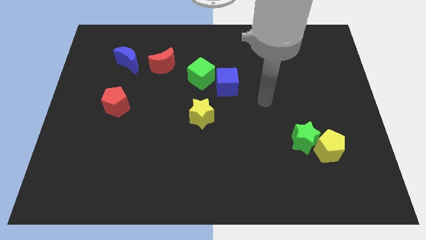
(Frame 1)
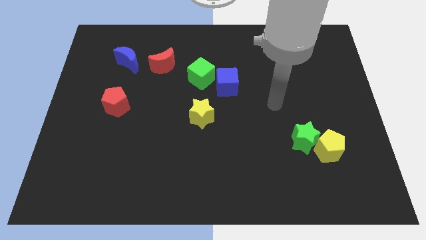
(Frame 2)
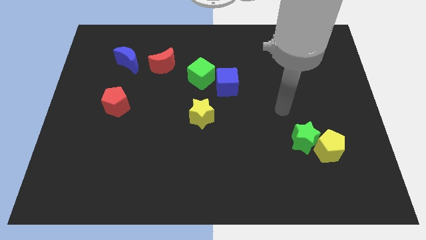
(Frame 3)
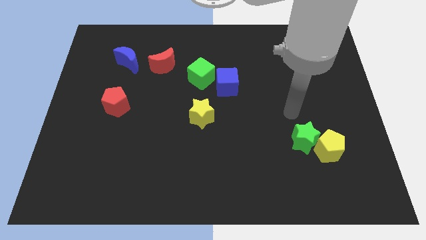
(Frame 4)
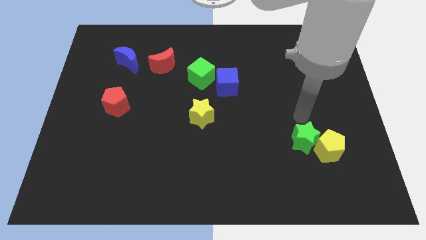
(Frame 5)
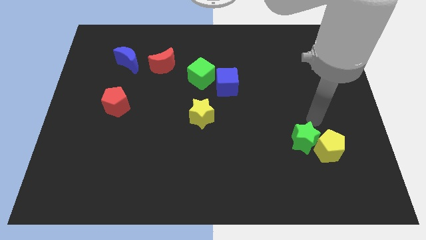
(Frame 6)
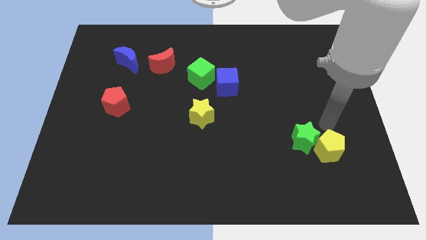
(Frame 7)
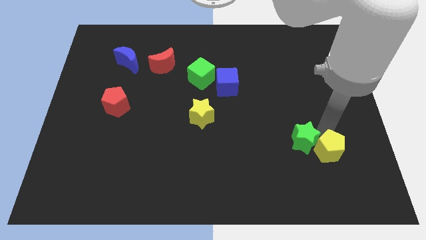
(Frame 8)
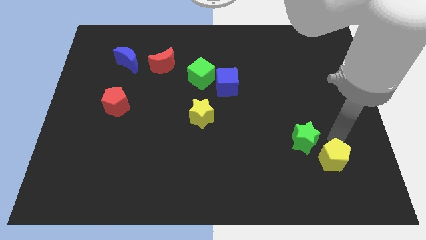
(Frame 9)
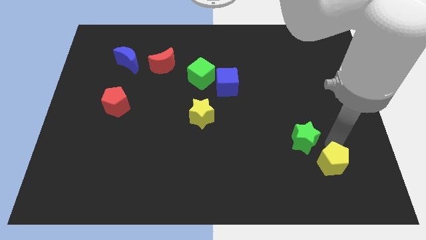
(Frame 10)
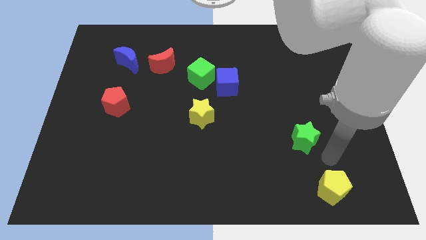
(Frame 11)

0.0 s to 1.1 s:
move the green star away from the yellow pentagon

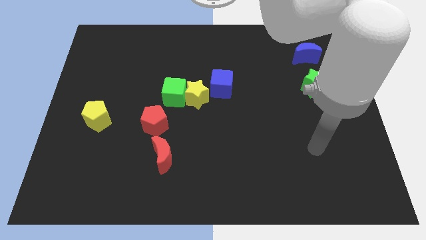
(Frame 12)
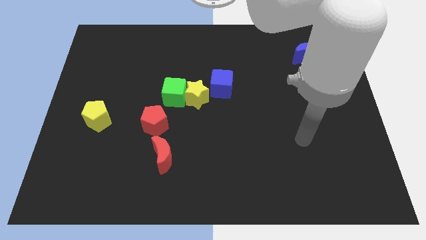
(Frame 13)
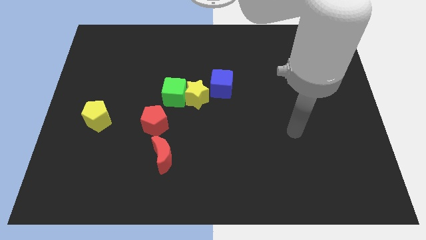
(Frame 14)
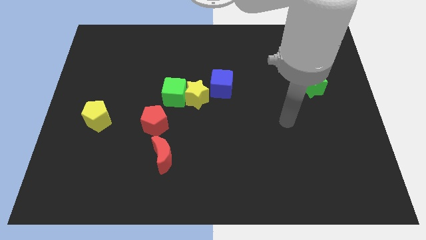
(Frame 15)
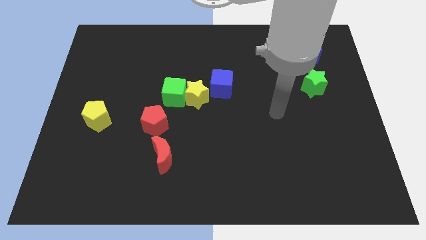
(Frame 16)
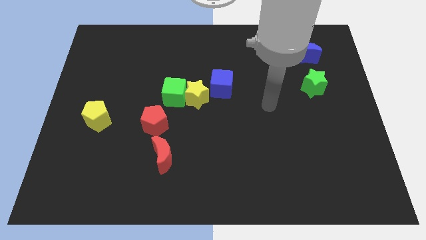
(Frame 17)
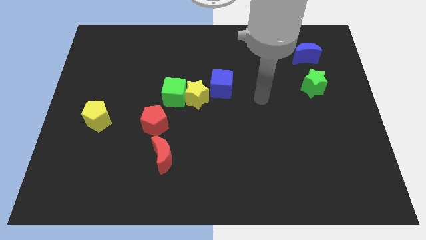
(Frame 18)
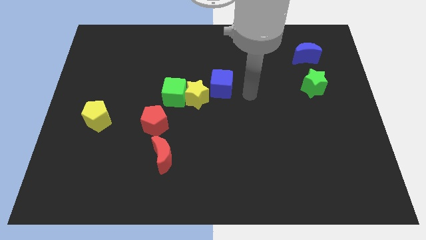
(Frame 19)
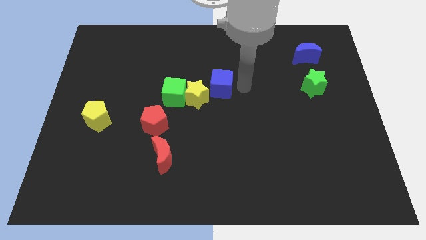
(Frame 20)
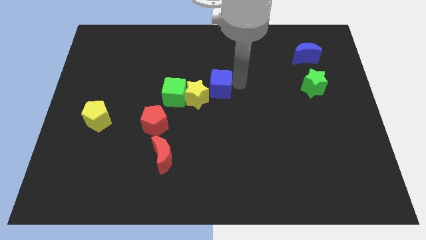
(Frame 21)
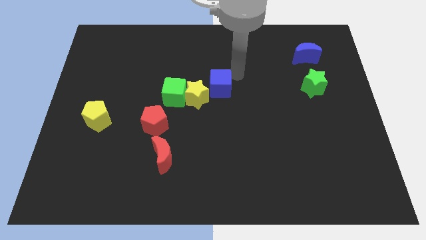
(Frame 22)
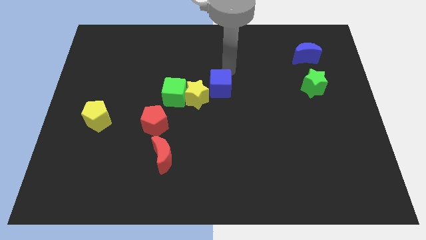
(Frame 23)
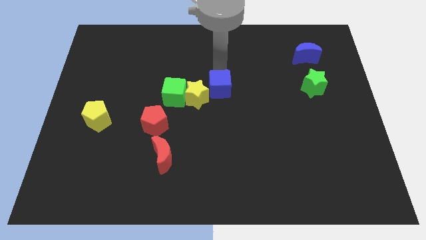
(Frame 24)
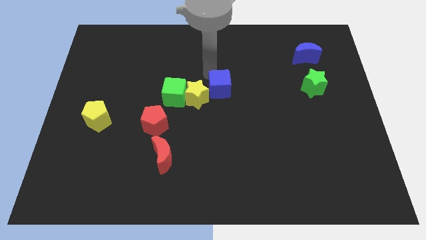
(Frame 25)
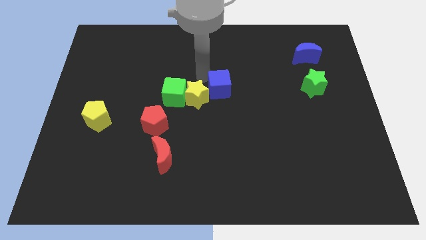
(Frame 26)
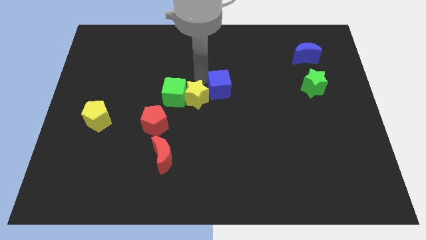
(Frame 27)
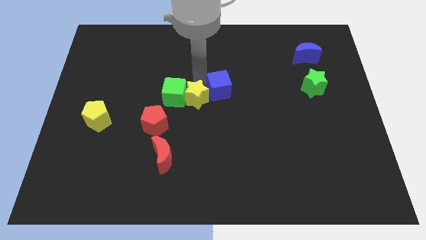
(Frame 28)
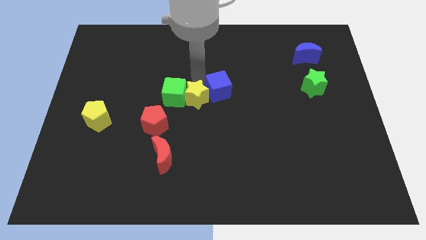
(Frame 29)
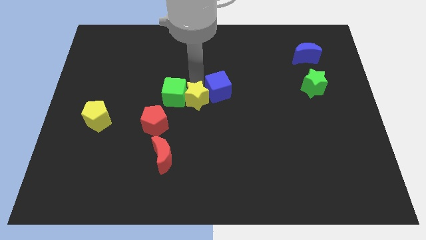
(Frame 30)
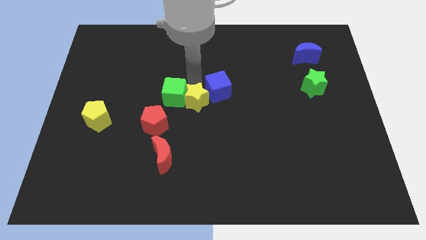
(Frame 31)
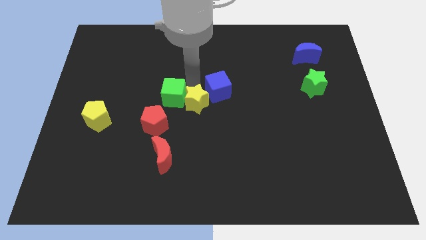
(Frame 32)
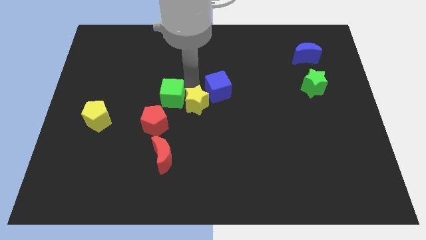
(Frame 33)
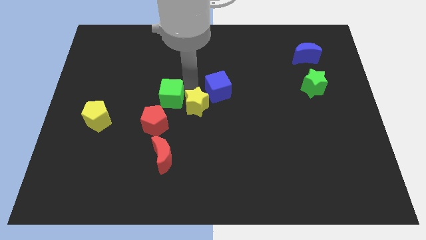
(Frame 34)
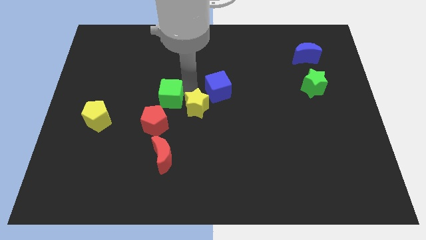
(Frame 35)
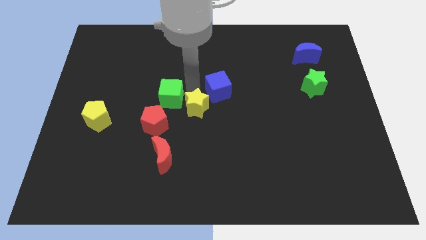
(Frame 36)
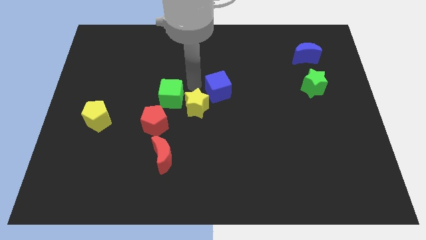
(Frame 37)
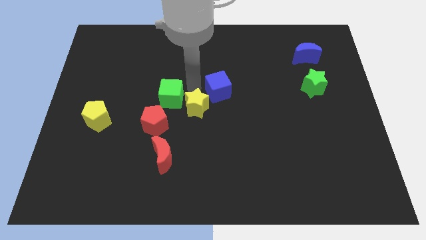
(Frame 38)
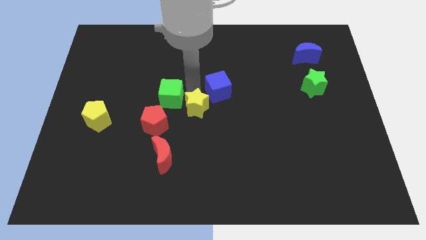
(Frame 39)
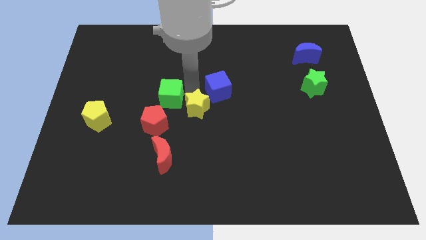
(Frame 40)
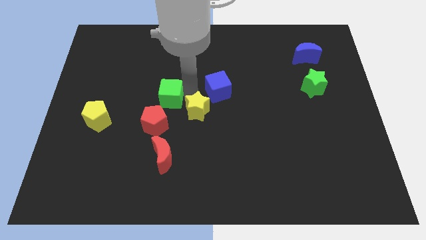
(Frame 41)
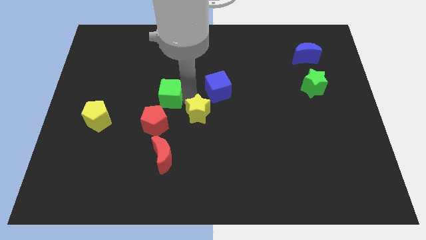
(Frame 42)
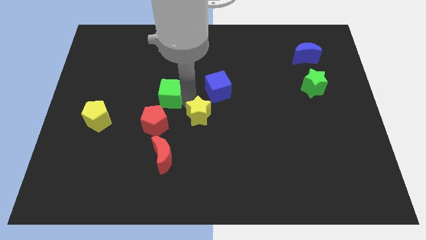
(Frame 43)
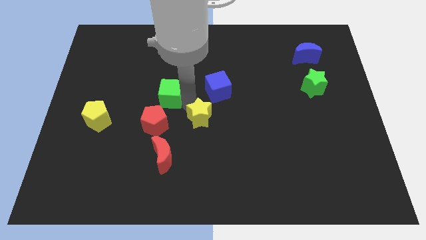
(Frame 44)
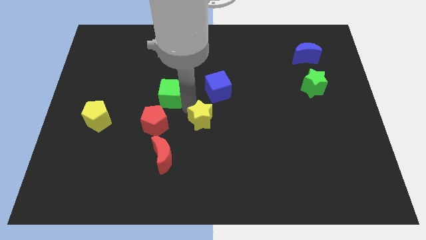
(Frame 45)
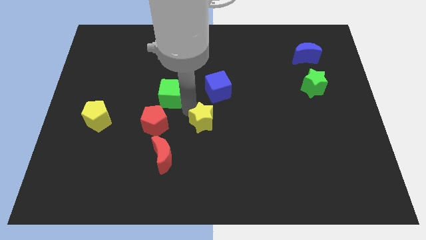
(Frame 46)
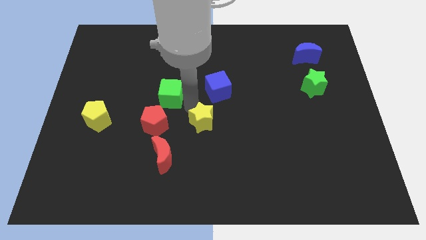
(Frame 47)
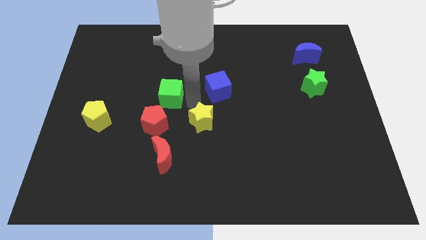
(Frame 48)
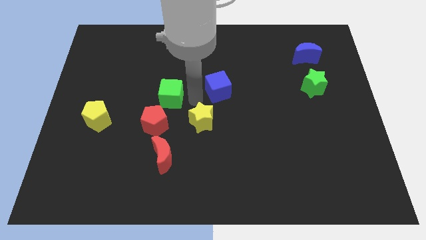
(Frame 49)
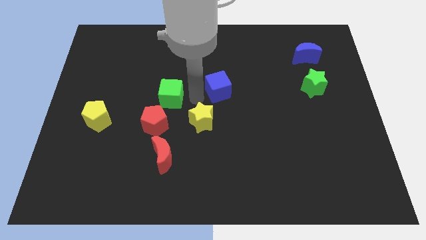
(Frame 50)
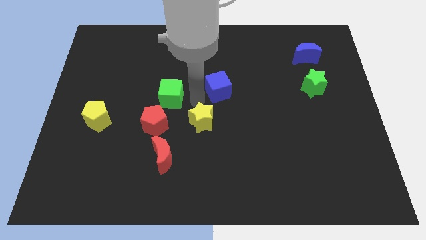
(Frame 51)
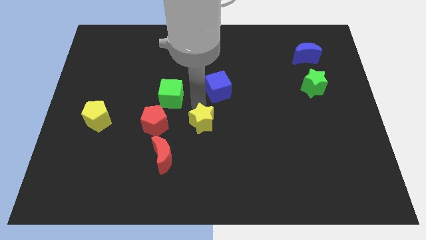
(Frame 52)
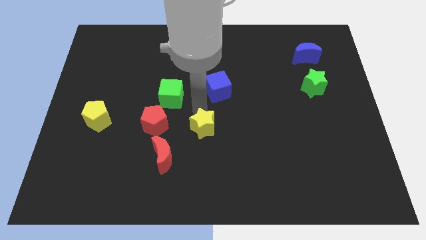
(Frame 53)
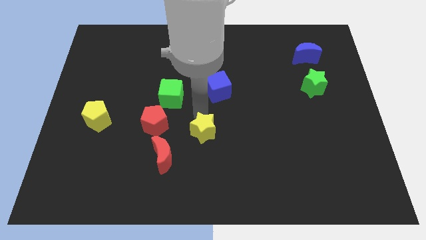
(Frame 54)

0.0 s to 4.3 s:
separate the yellow star from the green cube and blue cube

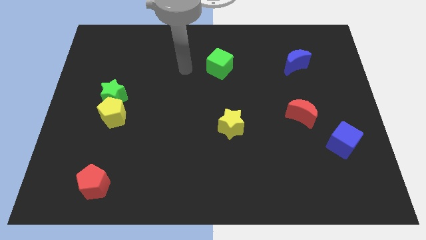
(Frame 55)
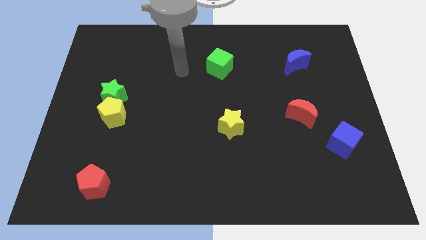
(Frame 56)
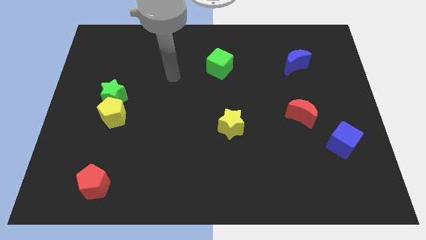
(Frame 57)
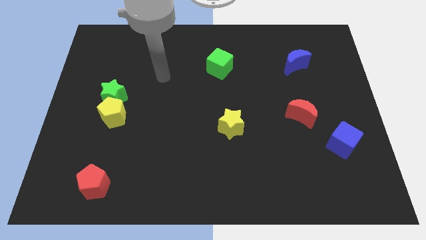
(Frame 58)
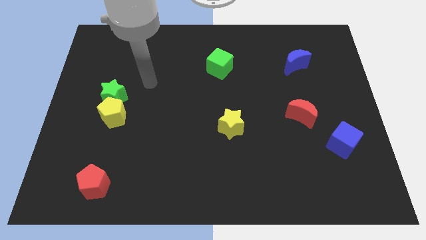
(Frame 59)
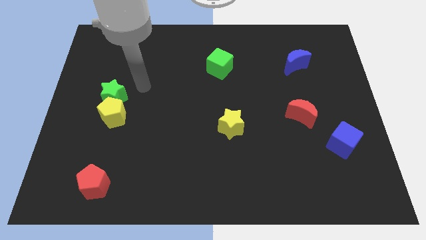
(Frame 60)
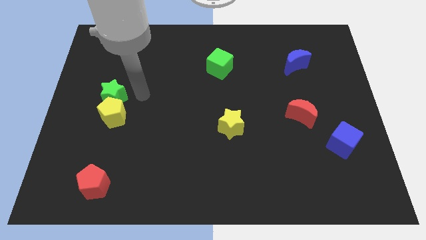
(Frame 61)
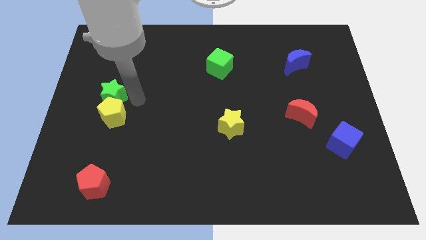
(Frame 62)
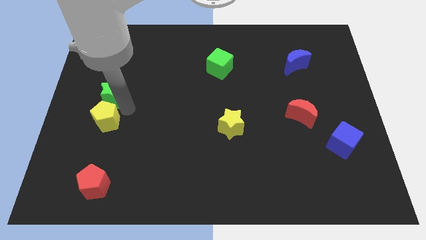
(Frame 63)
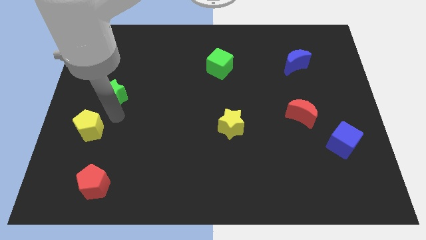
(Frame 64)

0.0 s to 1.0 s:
separate the green star from the yellow pentagon

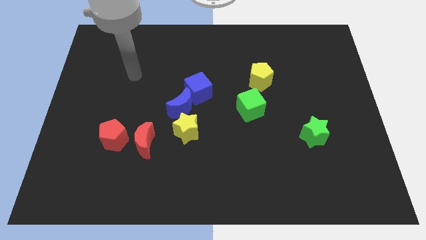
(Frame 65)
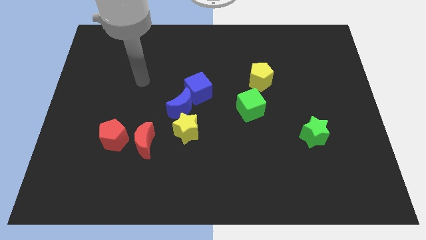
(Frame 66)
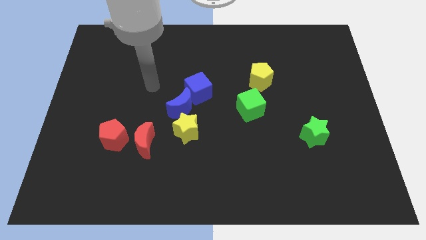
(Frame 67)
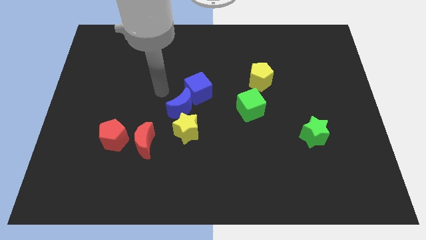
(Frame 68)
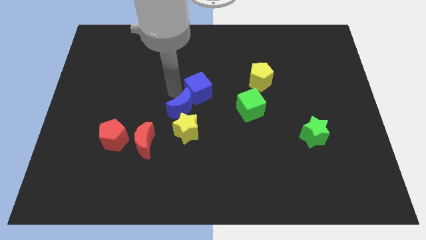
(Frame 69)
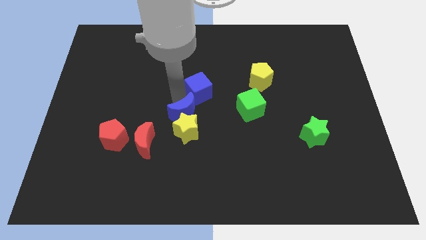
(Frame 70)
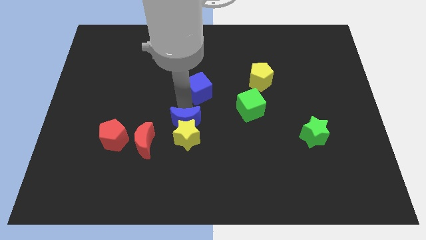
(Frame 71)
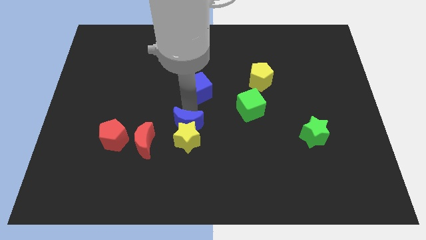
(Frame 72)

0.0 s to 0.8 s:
pull the blue cube apart from the blue moon

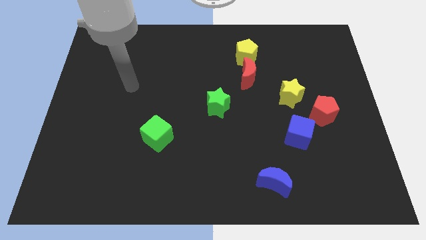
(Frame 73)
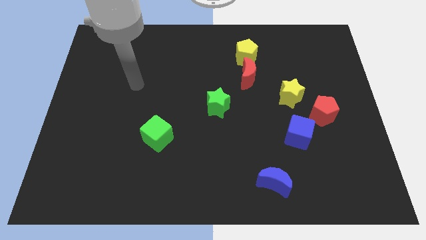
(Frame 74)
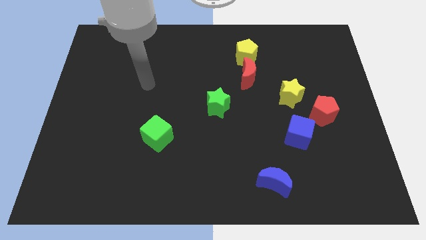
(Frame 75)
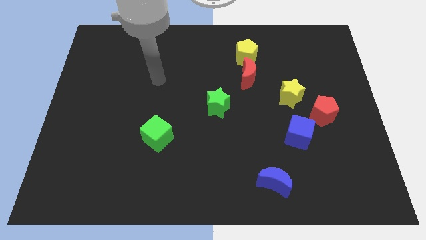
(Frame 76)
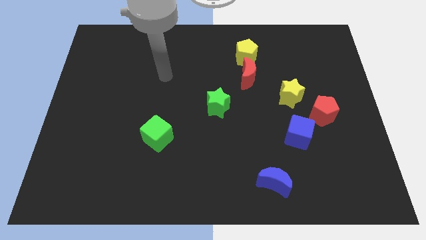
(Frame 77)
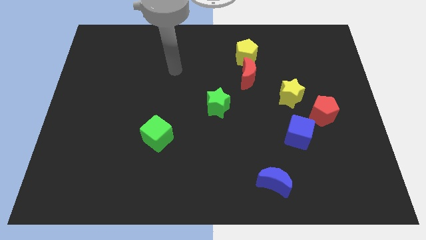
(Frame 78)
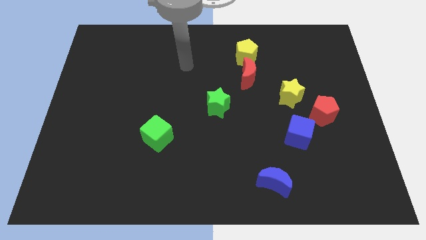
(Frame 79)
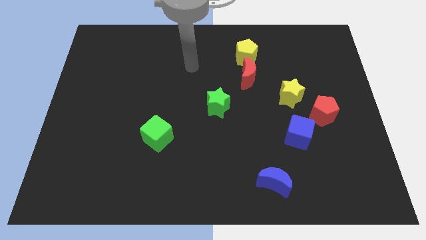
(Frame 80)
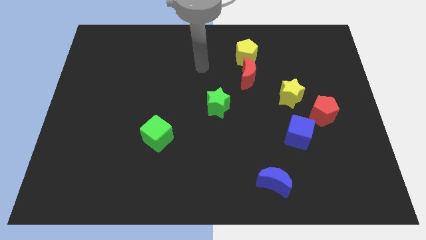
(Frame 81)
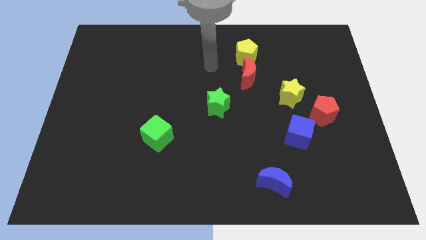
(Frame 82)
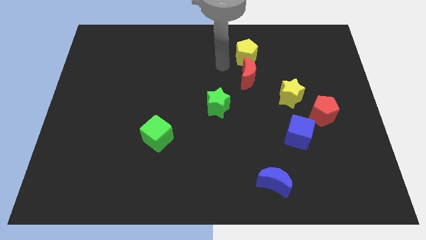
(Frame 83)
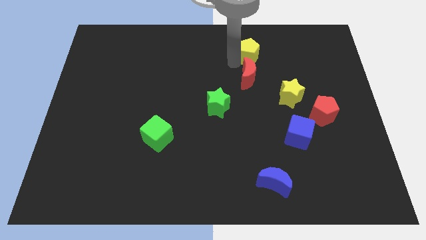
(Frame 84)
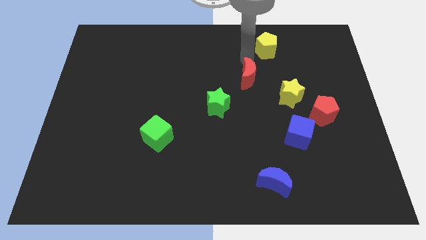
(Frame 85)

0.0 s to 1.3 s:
pull the red moon apart from the yellow pentagon

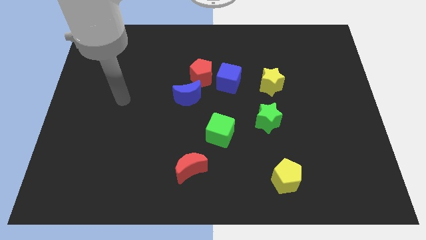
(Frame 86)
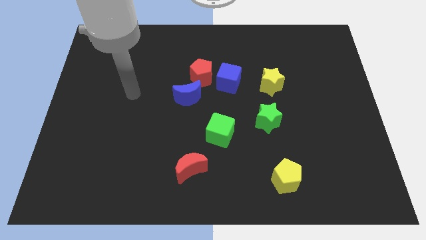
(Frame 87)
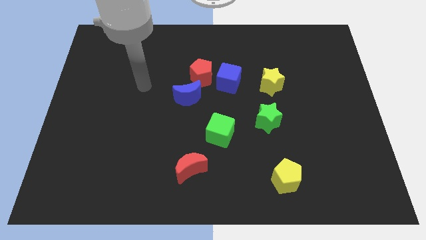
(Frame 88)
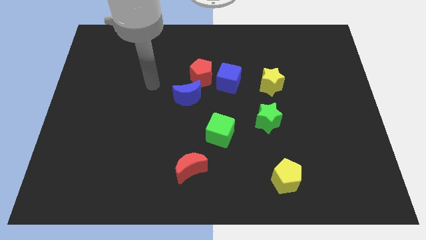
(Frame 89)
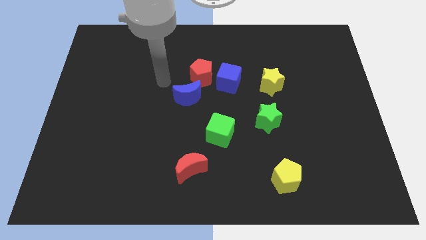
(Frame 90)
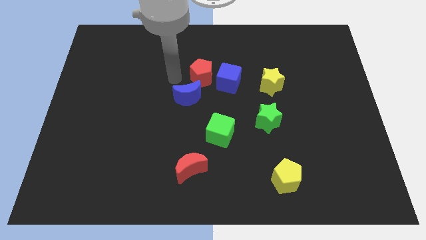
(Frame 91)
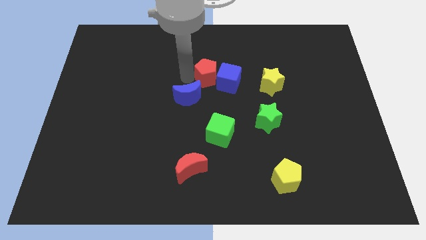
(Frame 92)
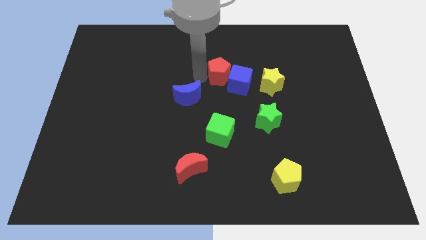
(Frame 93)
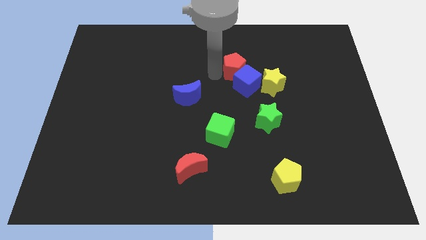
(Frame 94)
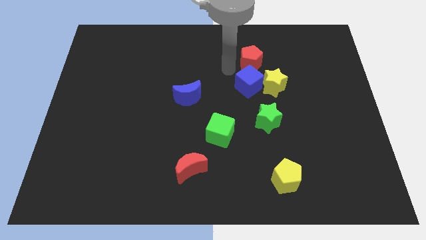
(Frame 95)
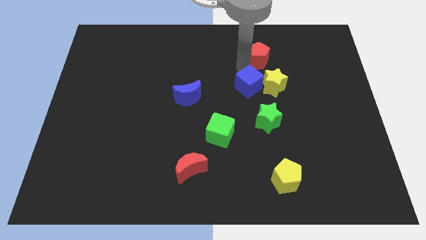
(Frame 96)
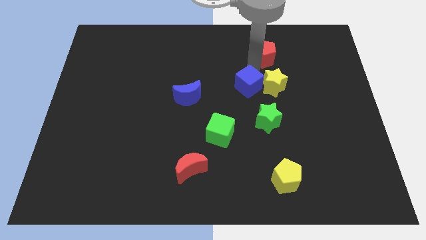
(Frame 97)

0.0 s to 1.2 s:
pull the blue cube apart from the red pentagon
